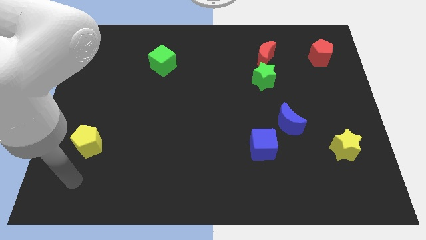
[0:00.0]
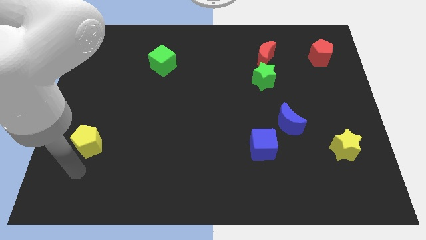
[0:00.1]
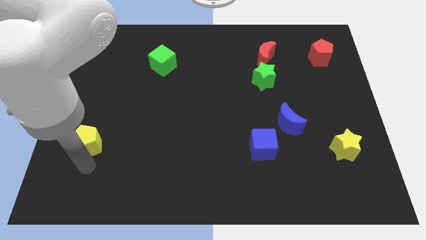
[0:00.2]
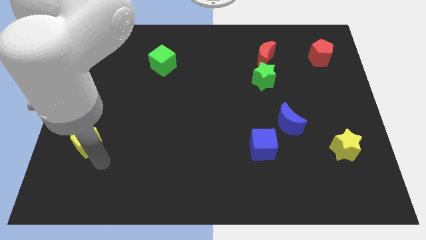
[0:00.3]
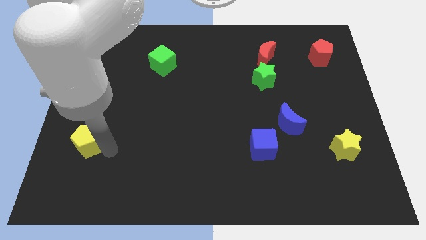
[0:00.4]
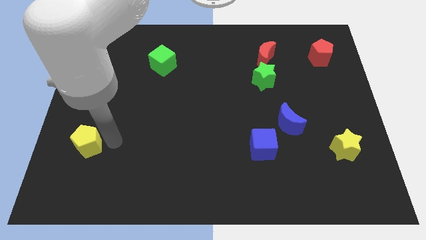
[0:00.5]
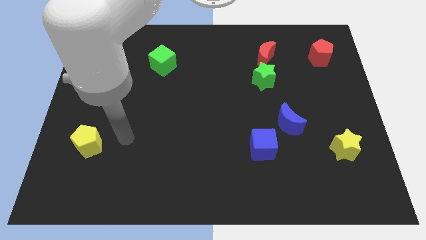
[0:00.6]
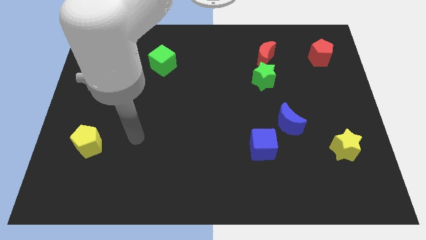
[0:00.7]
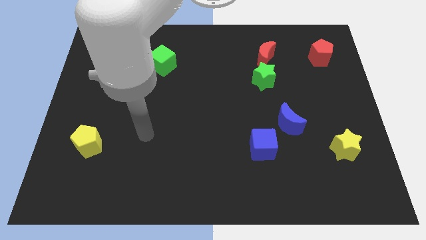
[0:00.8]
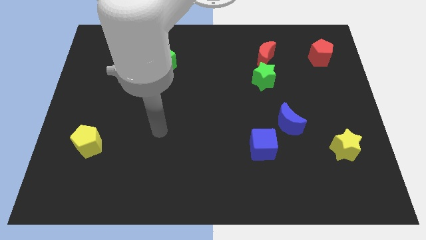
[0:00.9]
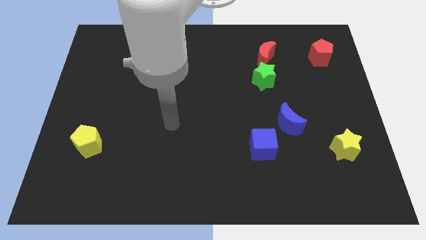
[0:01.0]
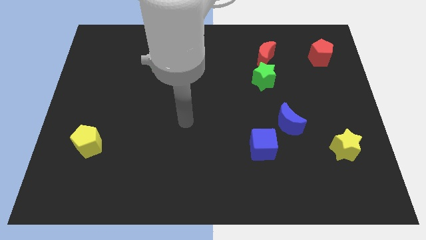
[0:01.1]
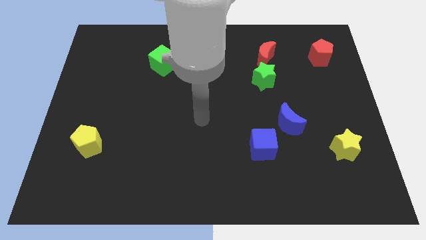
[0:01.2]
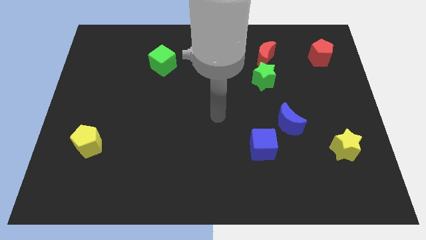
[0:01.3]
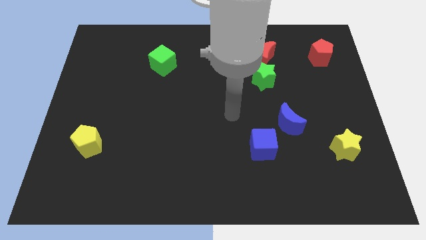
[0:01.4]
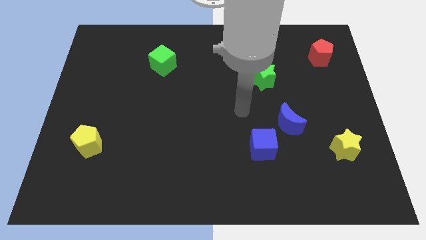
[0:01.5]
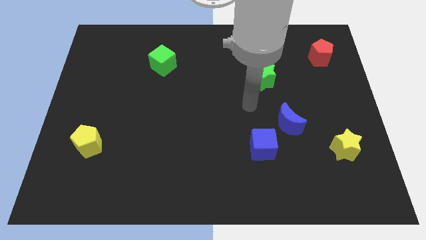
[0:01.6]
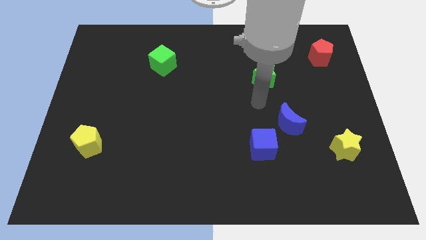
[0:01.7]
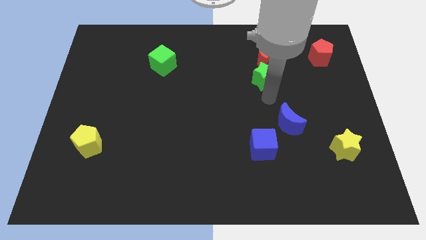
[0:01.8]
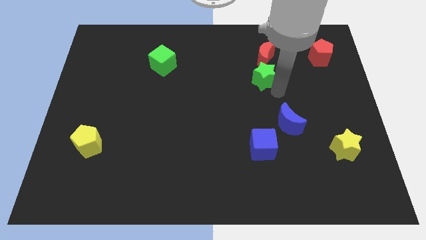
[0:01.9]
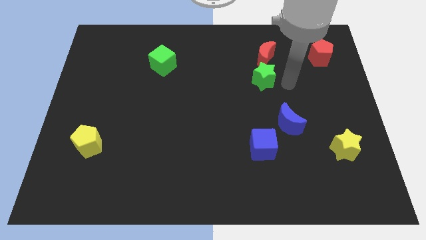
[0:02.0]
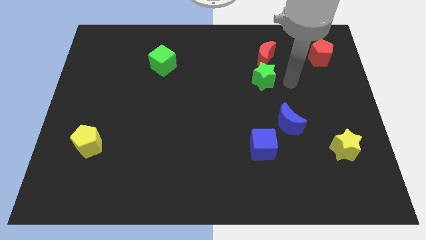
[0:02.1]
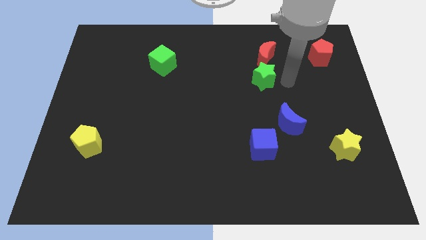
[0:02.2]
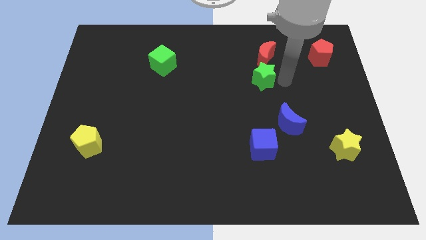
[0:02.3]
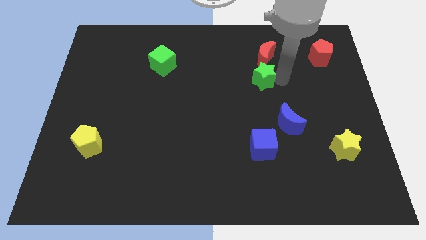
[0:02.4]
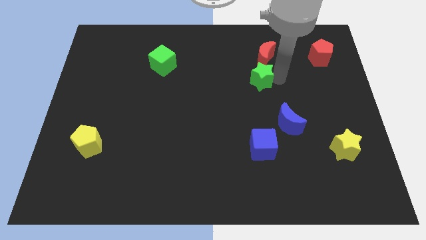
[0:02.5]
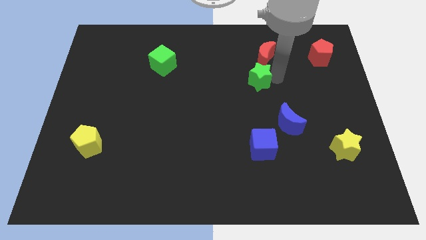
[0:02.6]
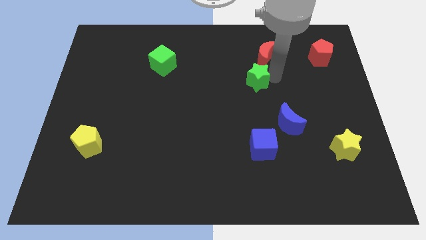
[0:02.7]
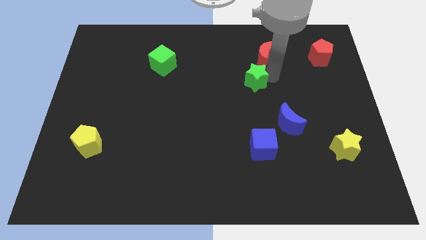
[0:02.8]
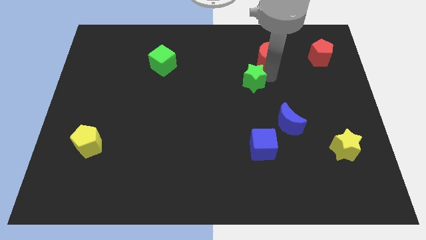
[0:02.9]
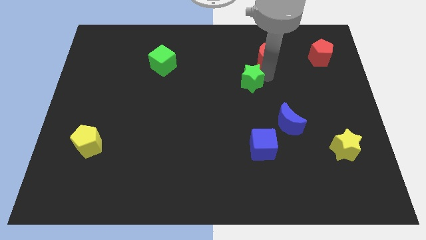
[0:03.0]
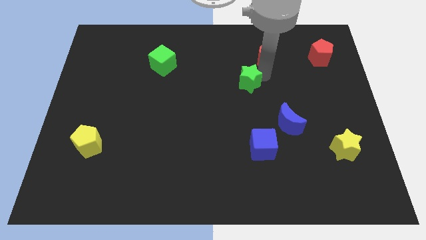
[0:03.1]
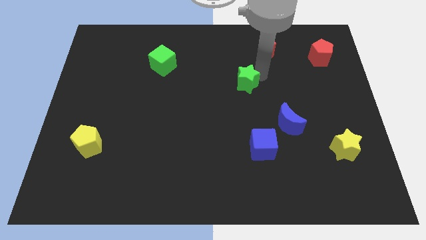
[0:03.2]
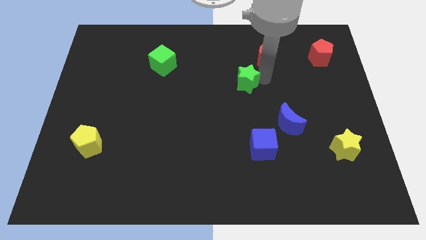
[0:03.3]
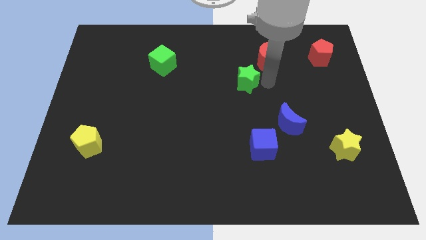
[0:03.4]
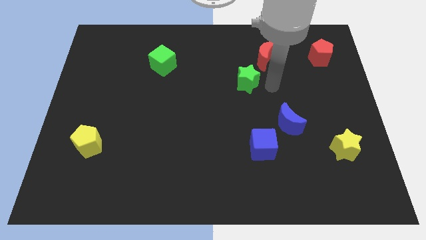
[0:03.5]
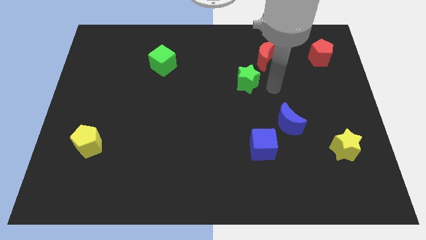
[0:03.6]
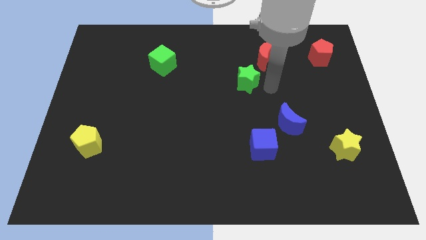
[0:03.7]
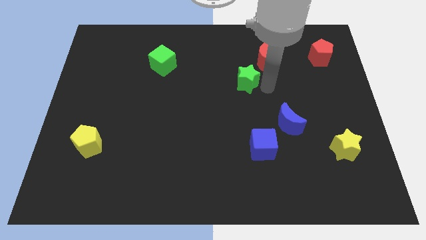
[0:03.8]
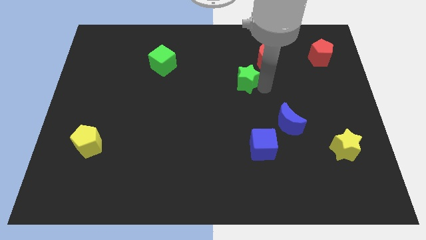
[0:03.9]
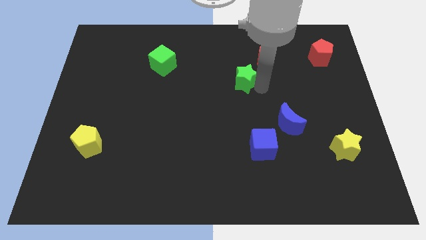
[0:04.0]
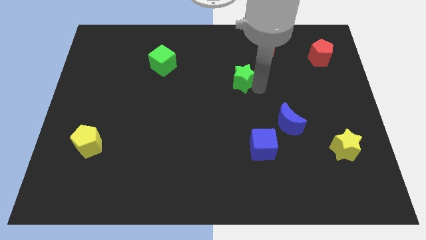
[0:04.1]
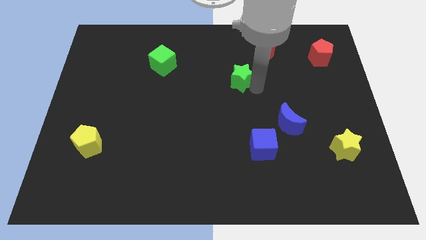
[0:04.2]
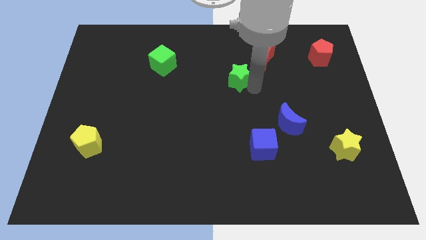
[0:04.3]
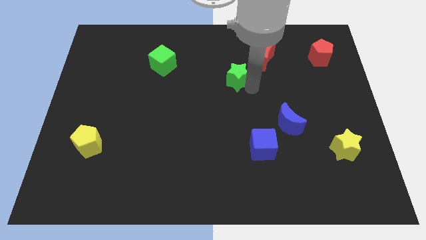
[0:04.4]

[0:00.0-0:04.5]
push the green star a little bit left

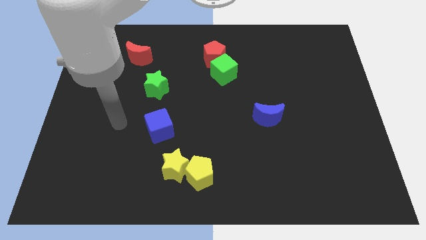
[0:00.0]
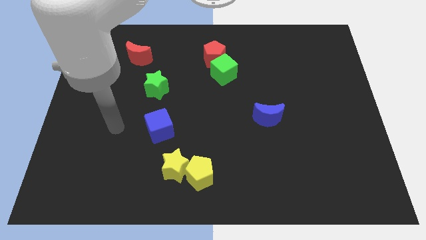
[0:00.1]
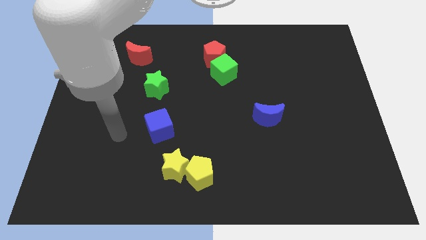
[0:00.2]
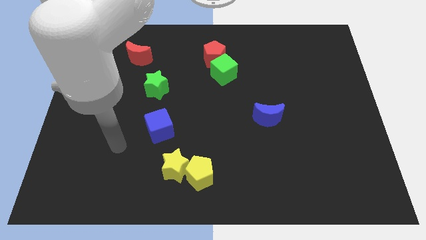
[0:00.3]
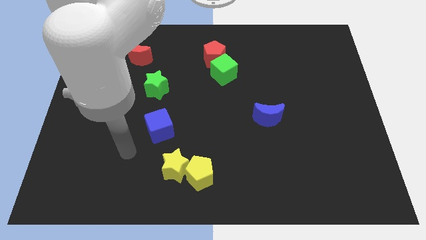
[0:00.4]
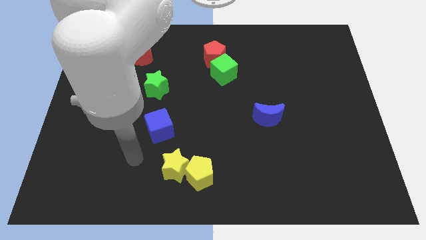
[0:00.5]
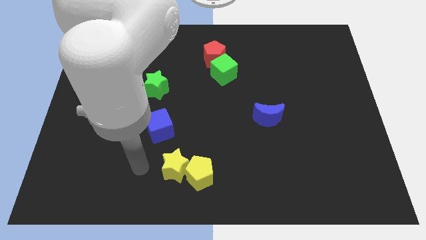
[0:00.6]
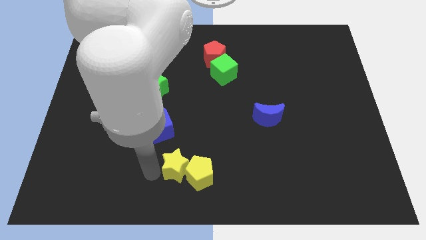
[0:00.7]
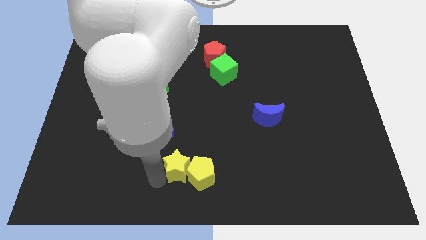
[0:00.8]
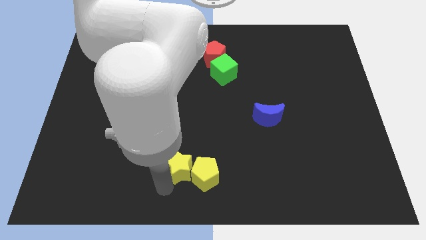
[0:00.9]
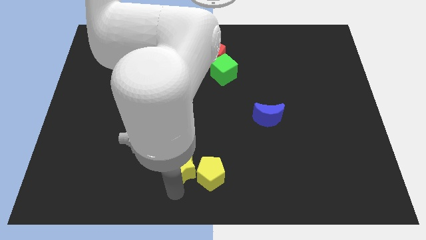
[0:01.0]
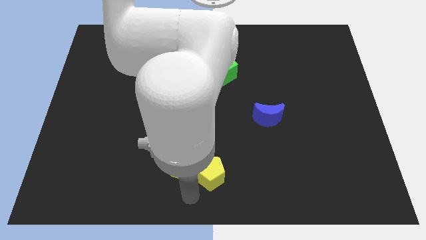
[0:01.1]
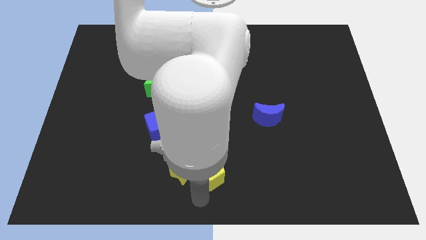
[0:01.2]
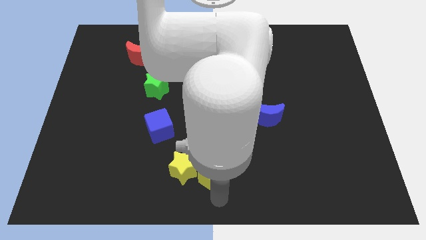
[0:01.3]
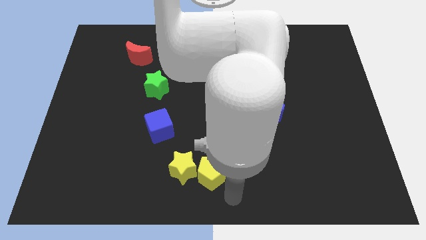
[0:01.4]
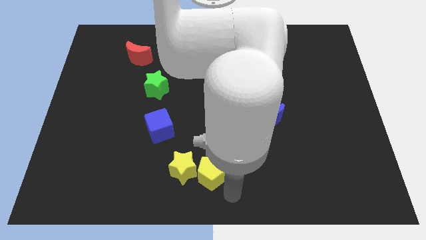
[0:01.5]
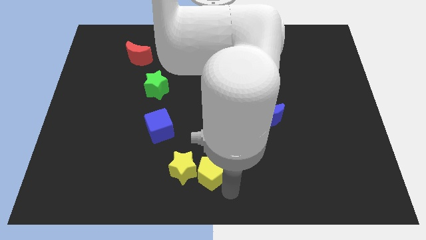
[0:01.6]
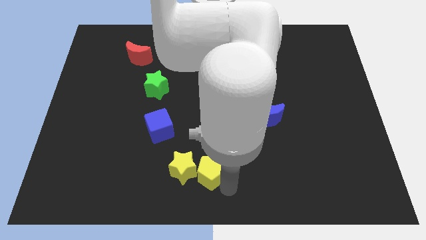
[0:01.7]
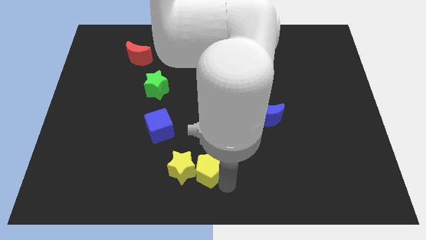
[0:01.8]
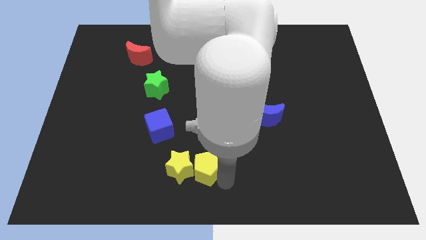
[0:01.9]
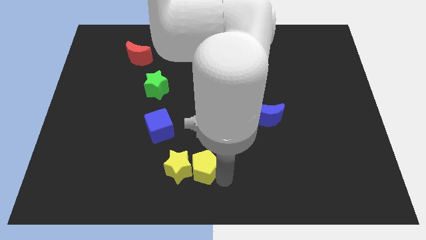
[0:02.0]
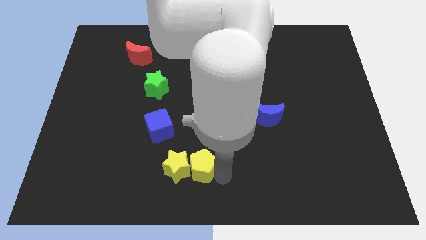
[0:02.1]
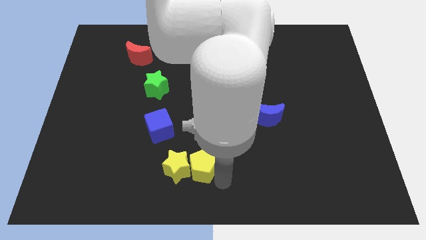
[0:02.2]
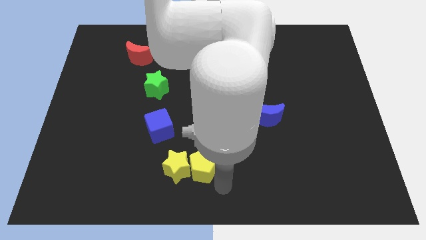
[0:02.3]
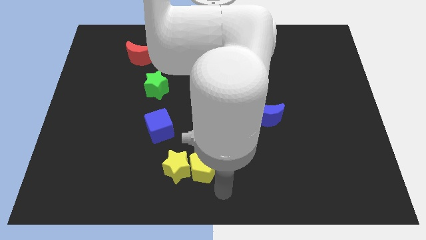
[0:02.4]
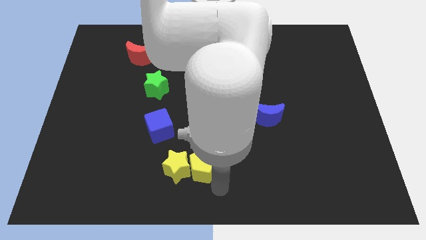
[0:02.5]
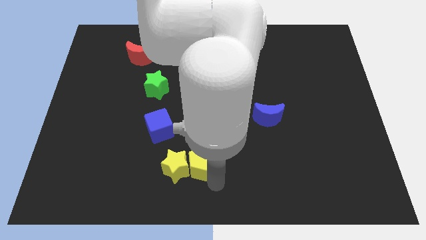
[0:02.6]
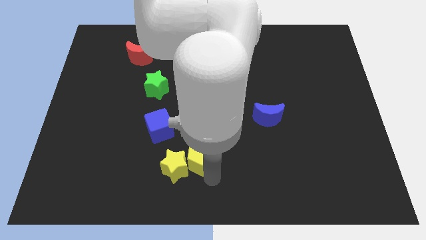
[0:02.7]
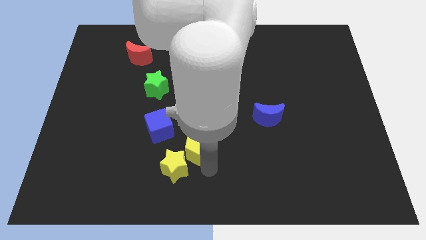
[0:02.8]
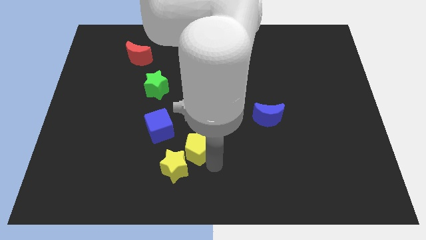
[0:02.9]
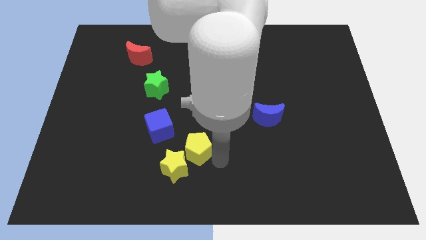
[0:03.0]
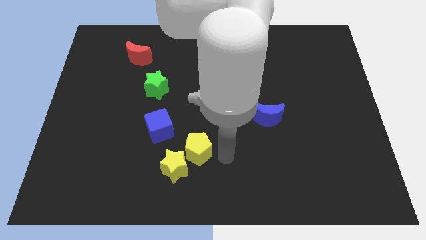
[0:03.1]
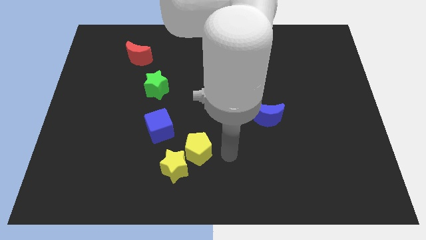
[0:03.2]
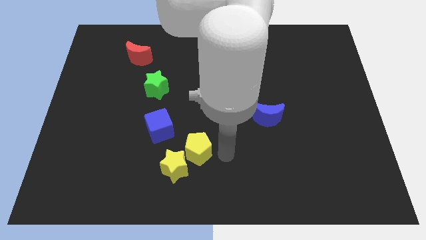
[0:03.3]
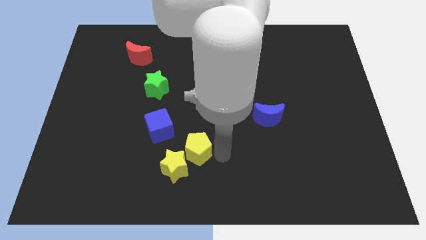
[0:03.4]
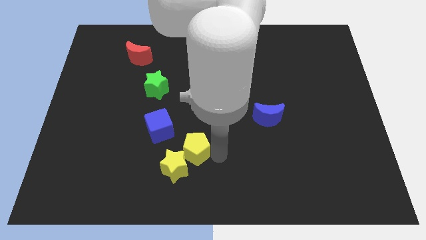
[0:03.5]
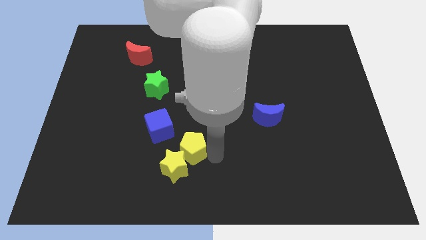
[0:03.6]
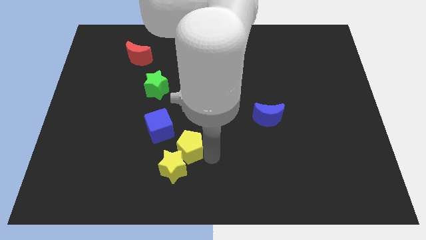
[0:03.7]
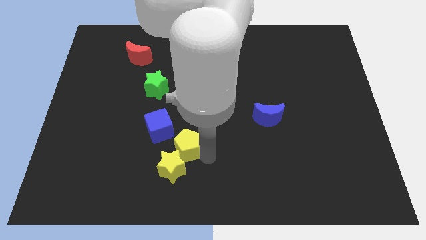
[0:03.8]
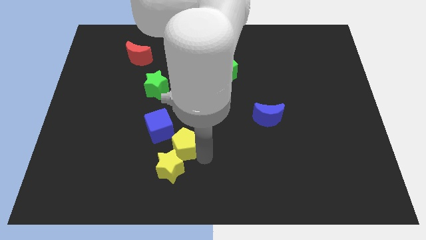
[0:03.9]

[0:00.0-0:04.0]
slide the yellow pentagon diagonally up and to the left slightly
